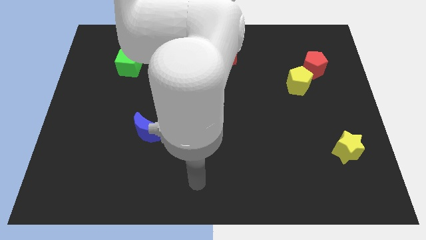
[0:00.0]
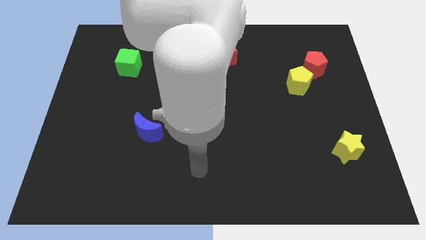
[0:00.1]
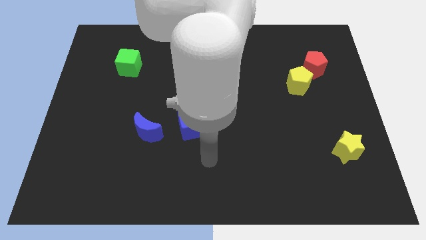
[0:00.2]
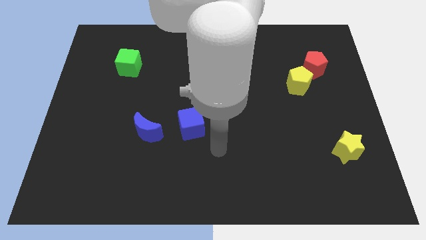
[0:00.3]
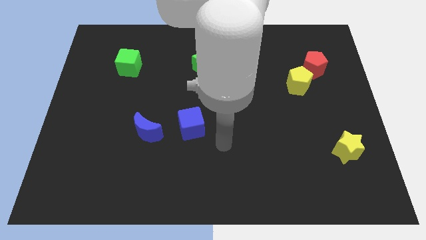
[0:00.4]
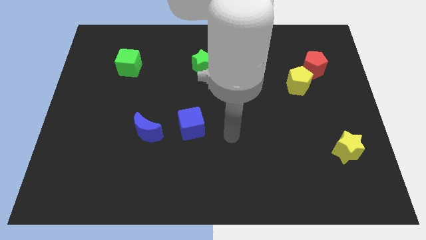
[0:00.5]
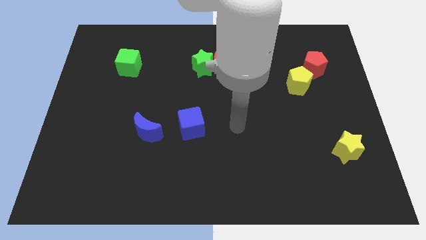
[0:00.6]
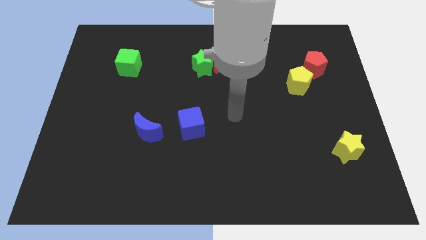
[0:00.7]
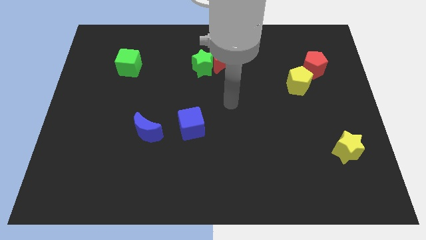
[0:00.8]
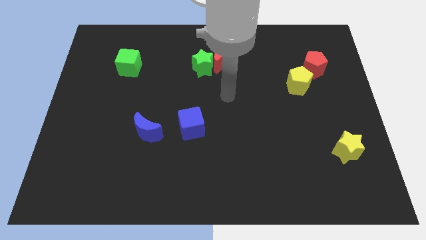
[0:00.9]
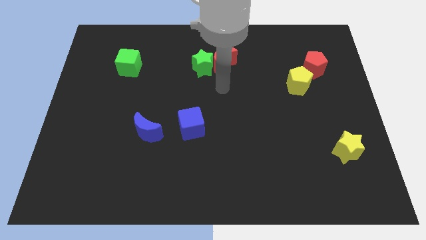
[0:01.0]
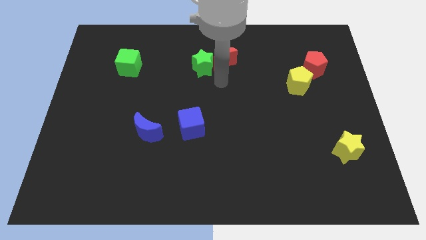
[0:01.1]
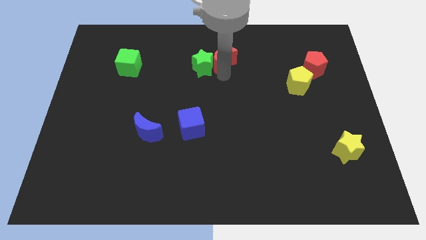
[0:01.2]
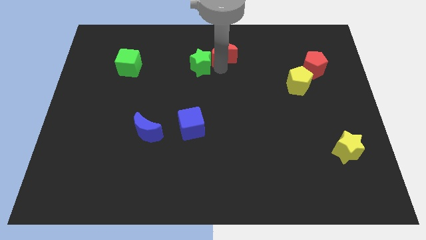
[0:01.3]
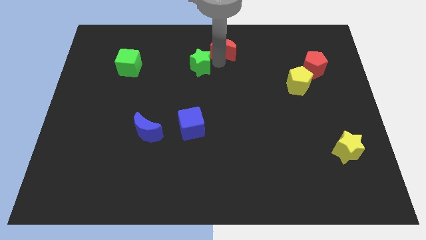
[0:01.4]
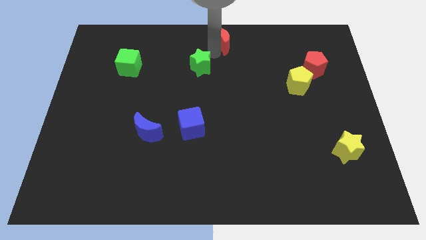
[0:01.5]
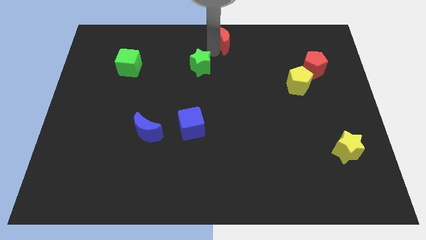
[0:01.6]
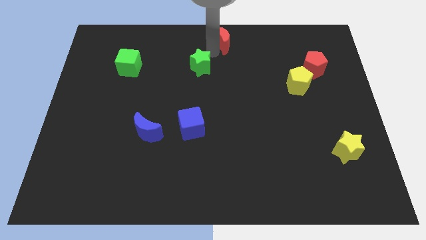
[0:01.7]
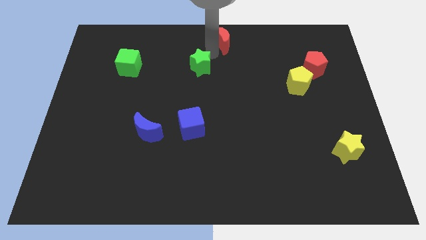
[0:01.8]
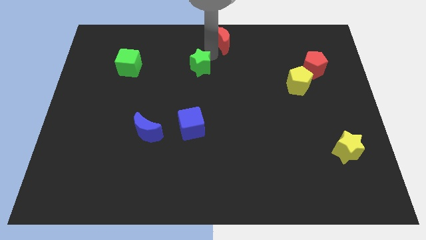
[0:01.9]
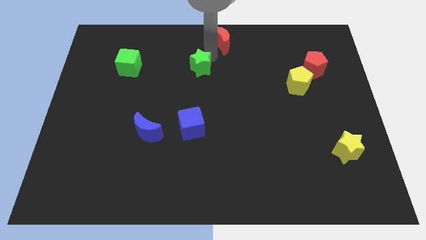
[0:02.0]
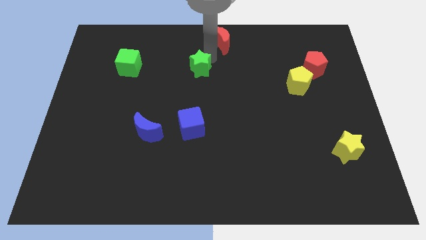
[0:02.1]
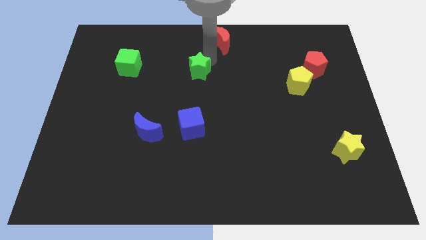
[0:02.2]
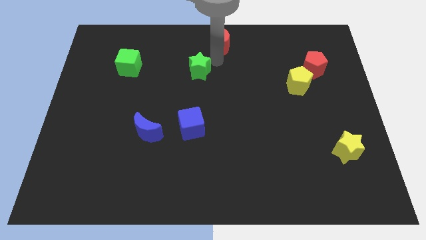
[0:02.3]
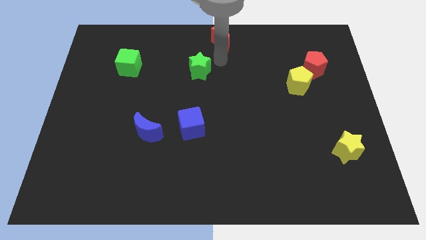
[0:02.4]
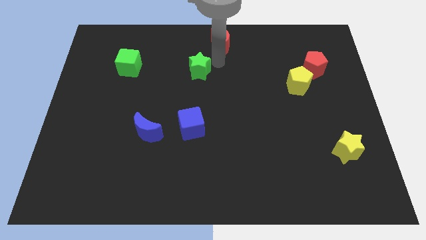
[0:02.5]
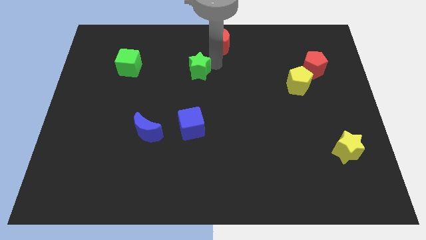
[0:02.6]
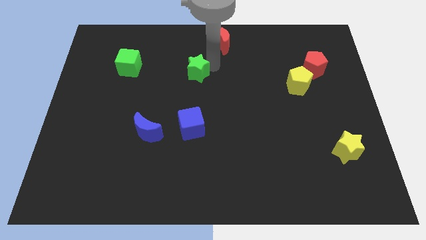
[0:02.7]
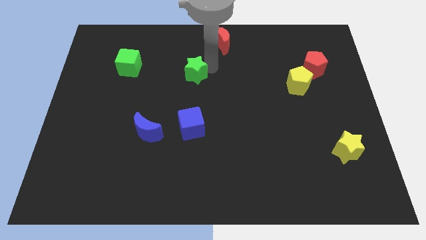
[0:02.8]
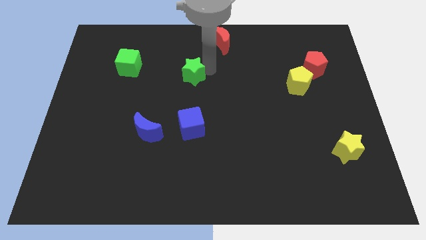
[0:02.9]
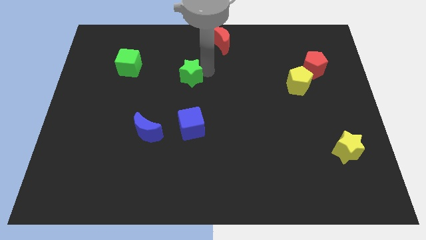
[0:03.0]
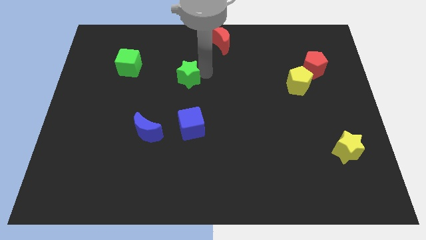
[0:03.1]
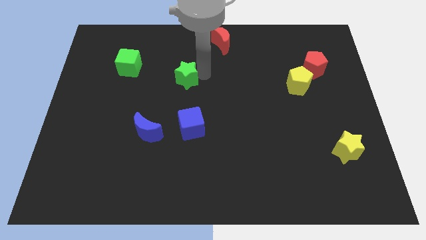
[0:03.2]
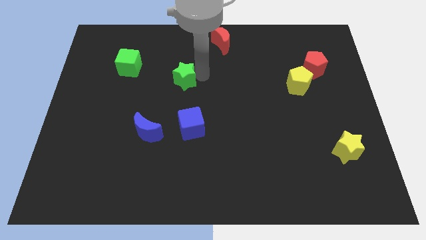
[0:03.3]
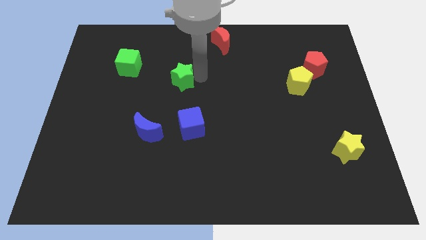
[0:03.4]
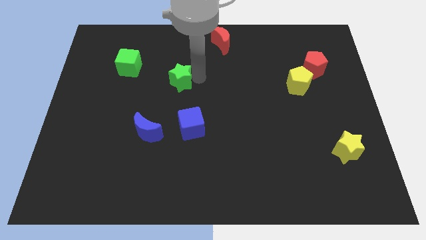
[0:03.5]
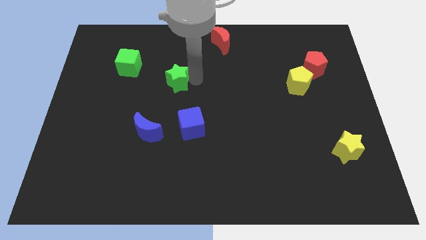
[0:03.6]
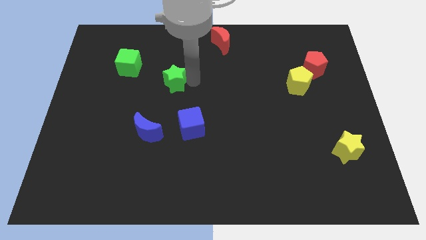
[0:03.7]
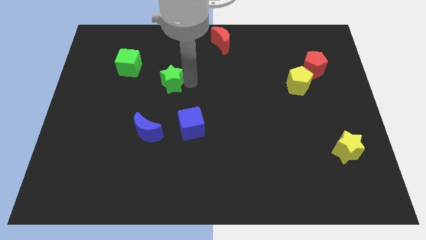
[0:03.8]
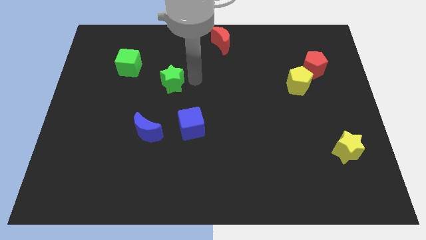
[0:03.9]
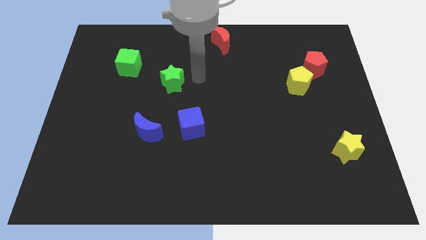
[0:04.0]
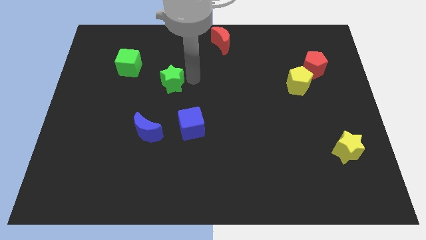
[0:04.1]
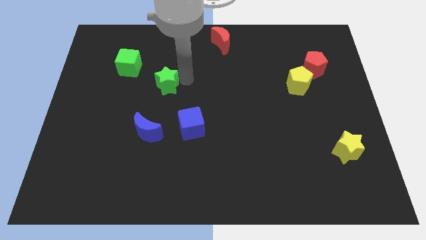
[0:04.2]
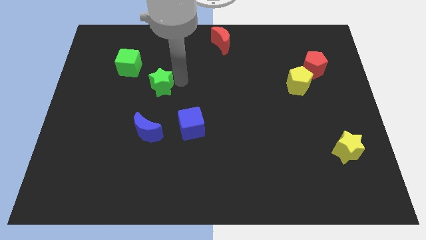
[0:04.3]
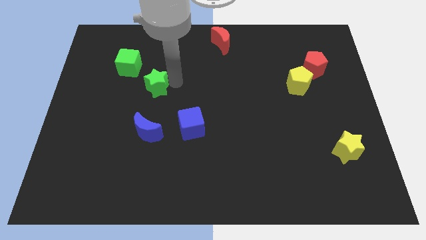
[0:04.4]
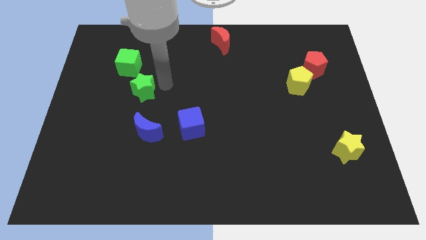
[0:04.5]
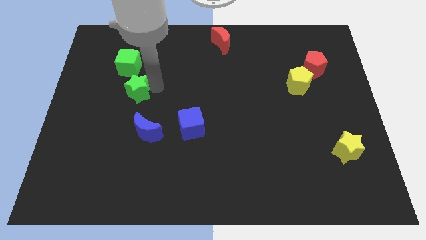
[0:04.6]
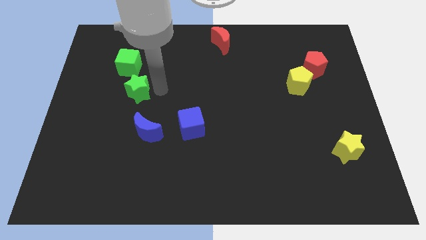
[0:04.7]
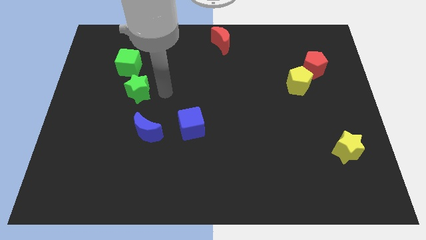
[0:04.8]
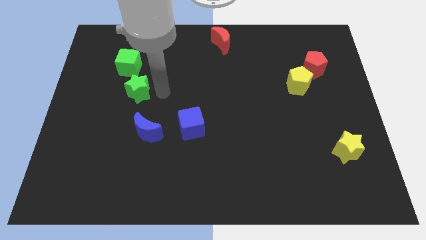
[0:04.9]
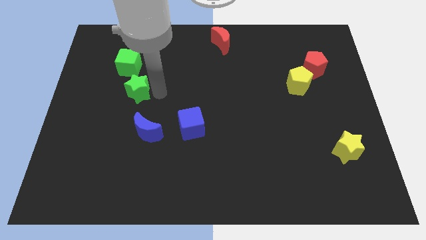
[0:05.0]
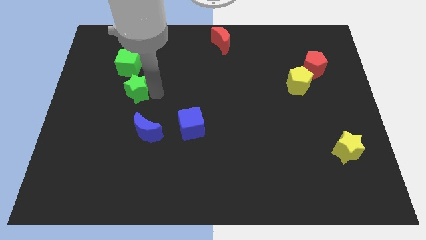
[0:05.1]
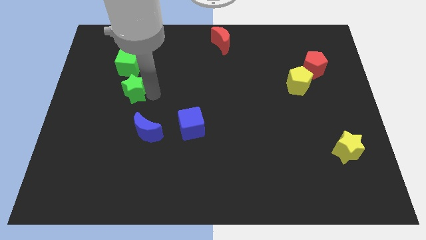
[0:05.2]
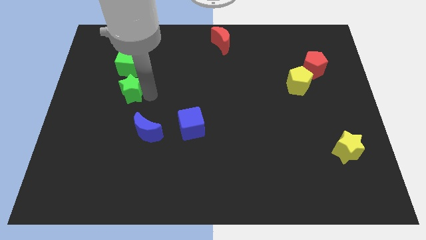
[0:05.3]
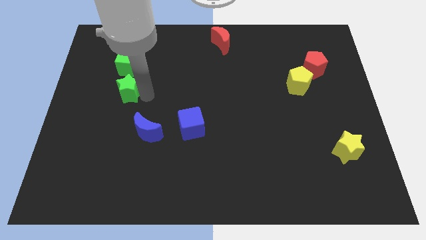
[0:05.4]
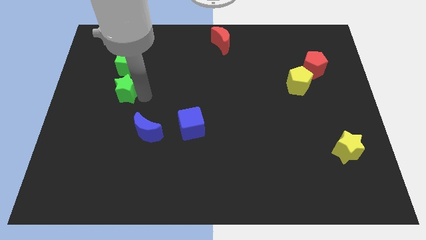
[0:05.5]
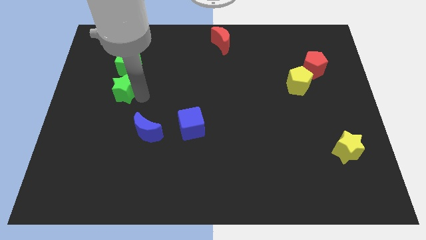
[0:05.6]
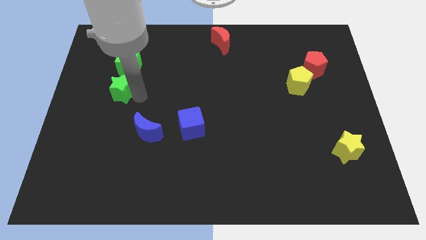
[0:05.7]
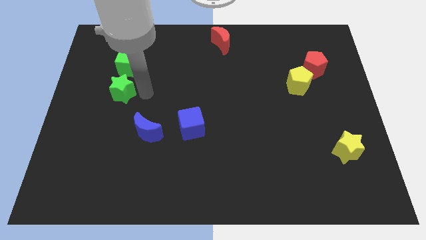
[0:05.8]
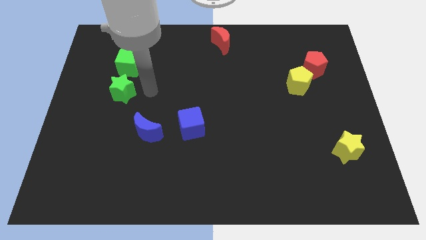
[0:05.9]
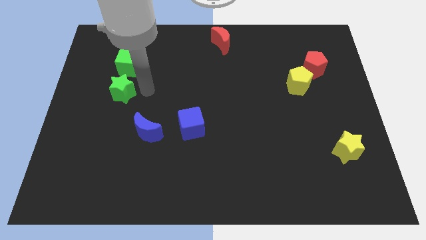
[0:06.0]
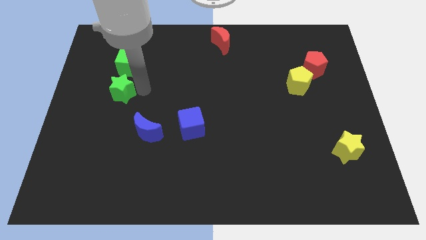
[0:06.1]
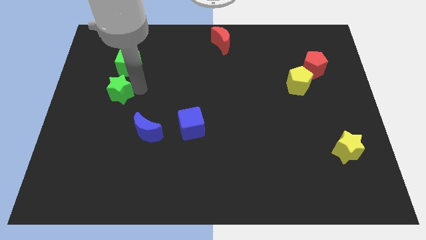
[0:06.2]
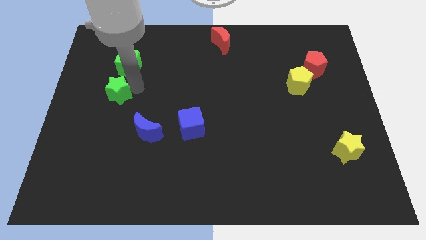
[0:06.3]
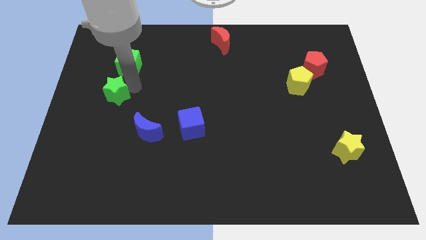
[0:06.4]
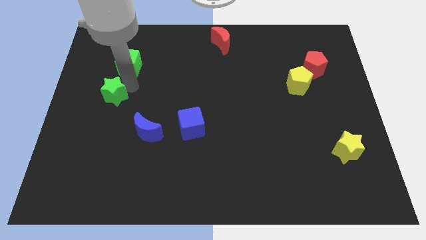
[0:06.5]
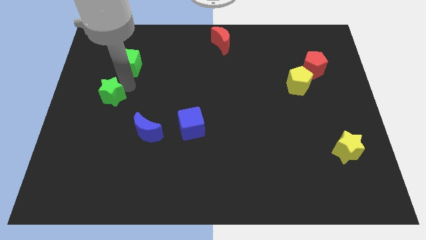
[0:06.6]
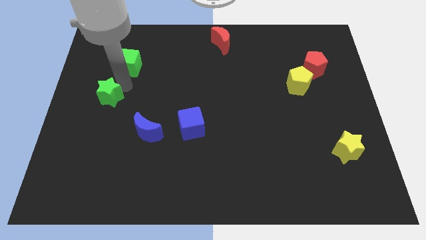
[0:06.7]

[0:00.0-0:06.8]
slide the green star to the center left
